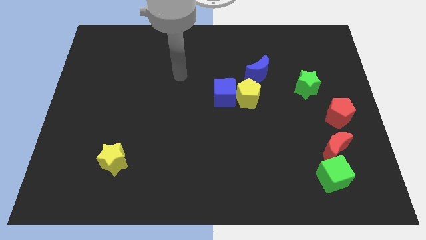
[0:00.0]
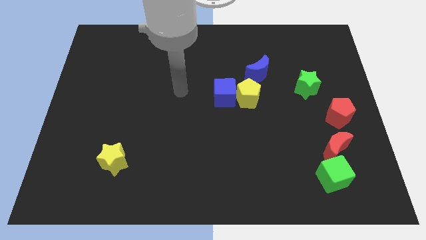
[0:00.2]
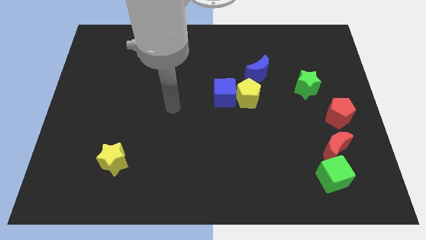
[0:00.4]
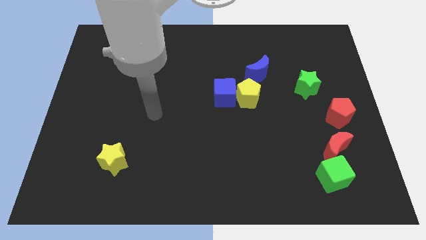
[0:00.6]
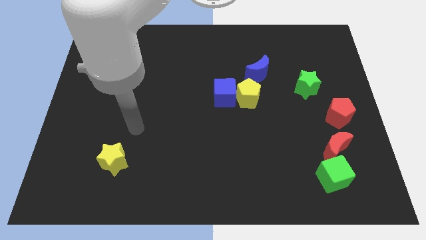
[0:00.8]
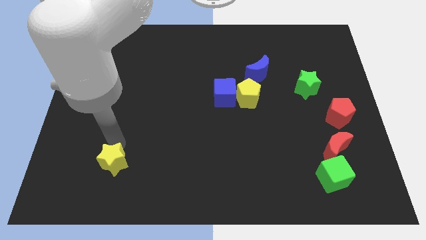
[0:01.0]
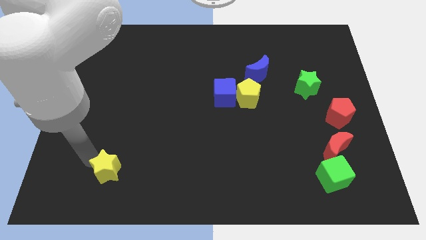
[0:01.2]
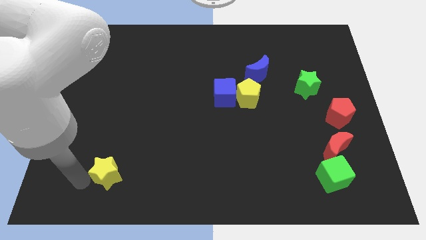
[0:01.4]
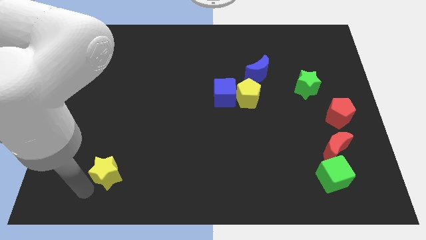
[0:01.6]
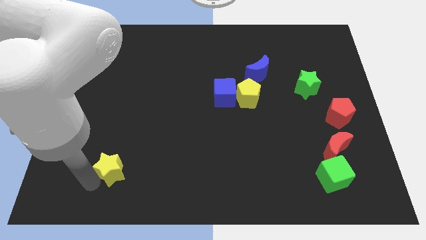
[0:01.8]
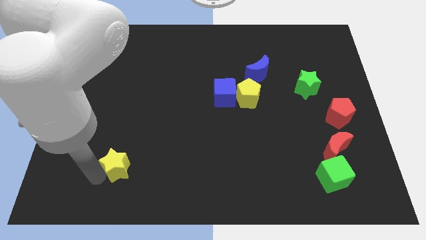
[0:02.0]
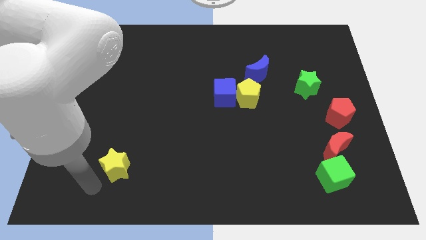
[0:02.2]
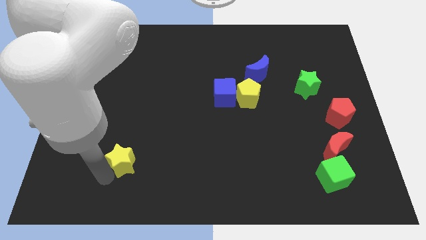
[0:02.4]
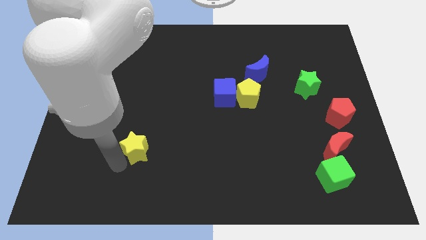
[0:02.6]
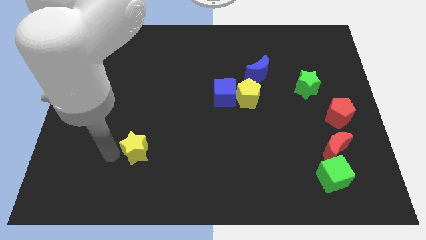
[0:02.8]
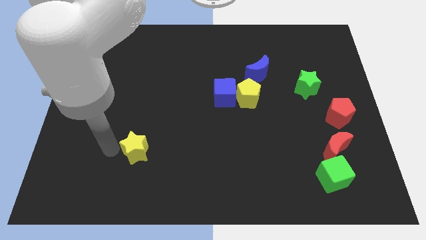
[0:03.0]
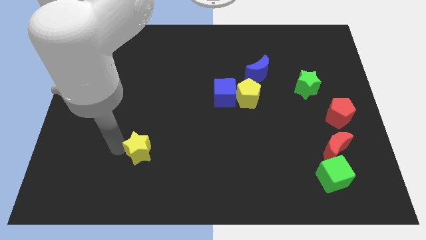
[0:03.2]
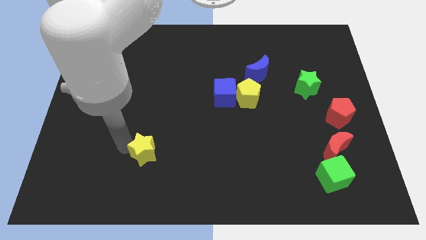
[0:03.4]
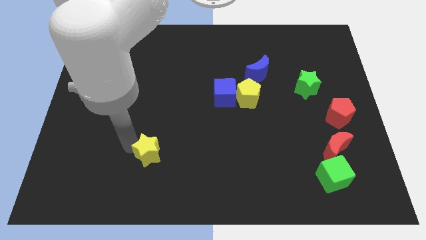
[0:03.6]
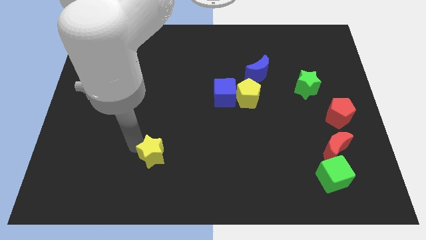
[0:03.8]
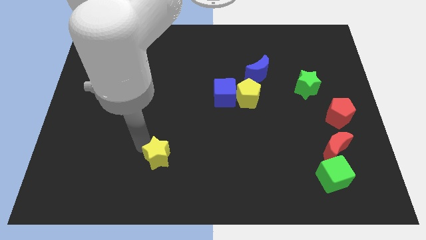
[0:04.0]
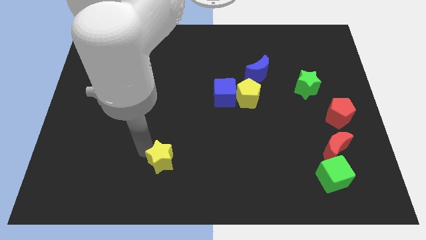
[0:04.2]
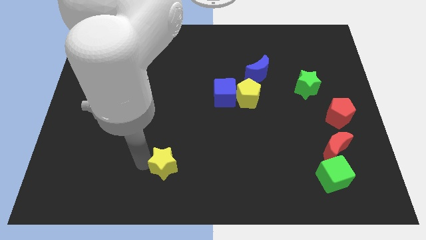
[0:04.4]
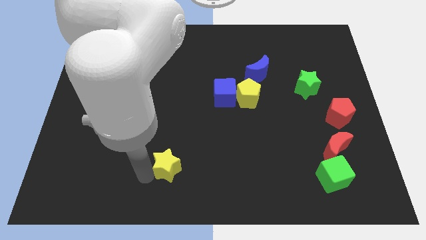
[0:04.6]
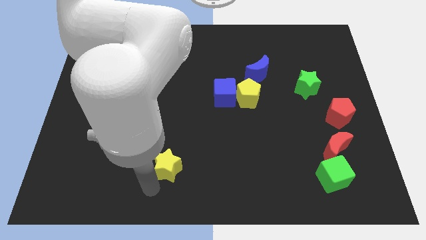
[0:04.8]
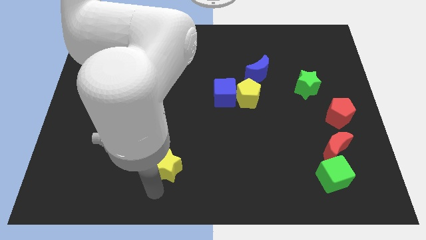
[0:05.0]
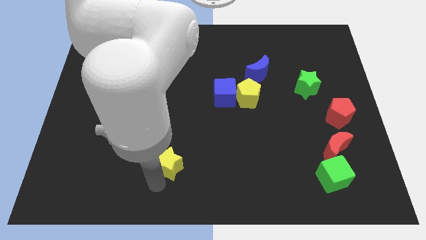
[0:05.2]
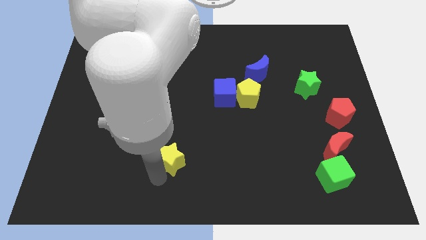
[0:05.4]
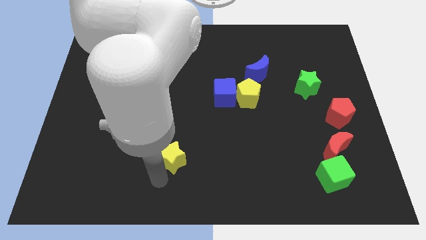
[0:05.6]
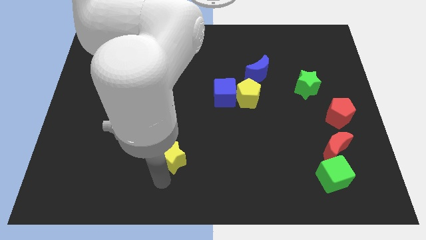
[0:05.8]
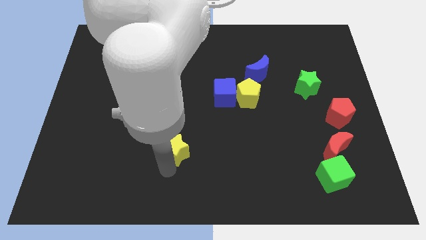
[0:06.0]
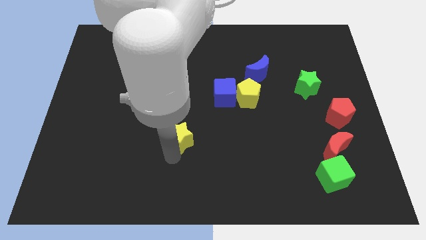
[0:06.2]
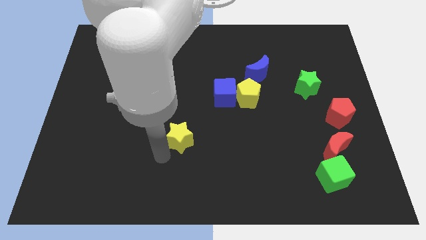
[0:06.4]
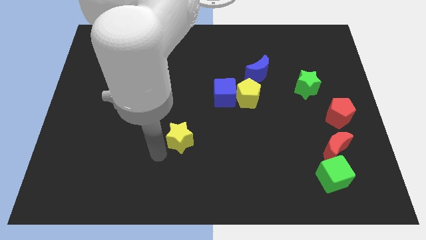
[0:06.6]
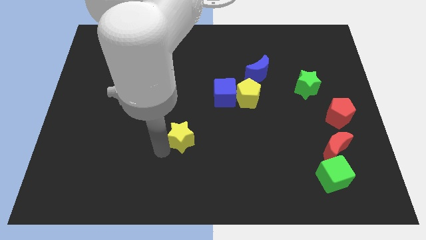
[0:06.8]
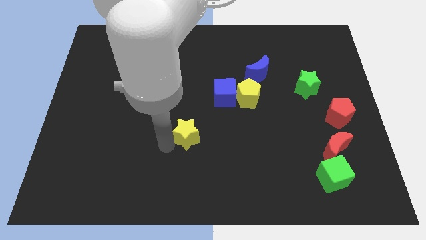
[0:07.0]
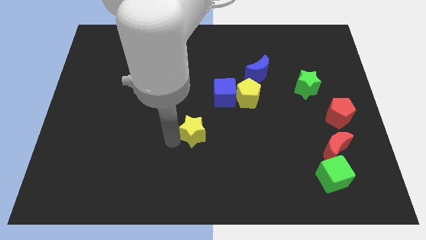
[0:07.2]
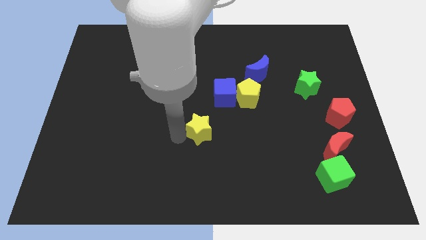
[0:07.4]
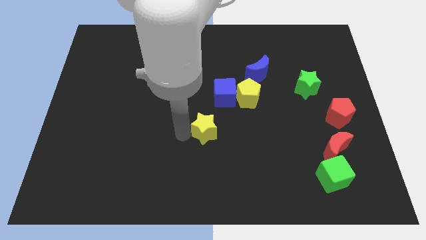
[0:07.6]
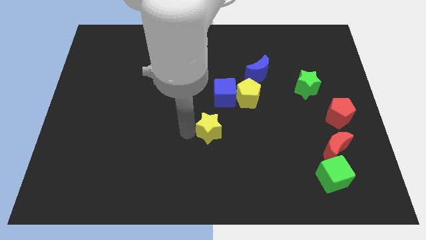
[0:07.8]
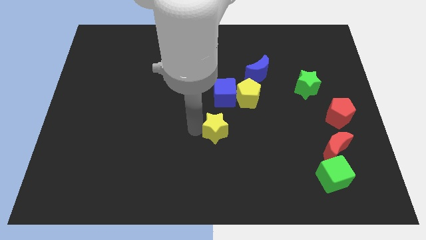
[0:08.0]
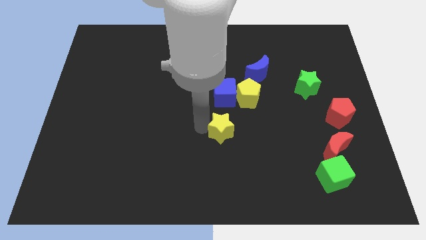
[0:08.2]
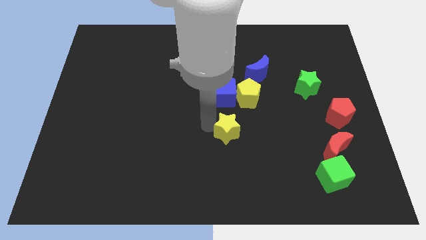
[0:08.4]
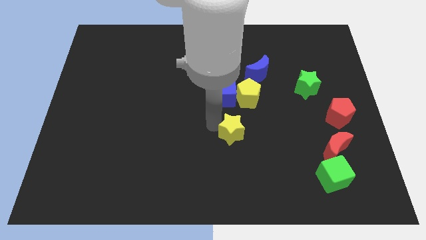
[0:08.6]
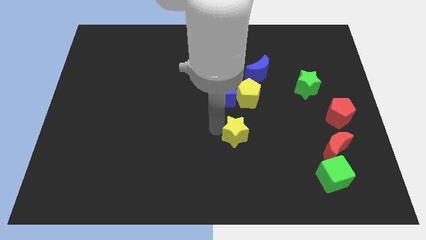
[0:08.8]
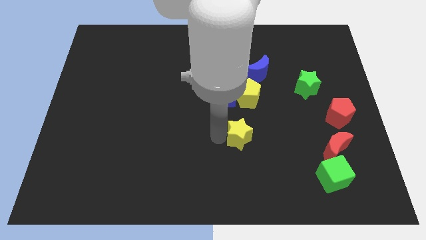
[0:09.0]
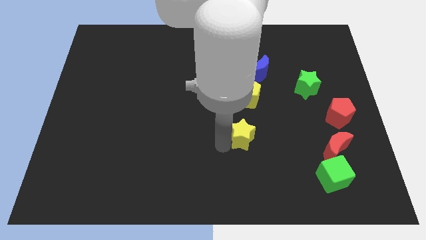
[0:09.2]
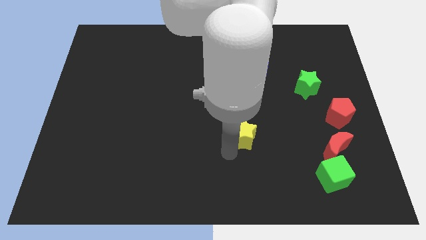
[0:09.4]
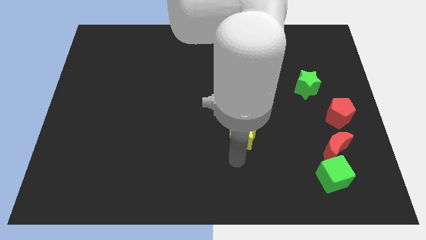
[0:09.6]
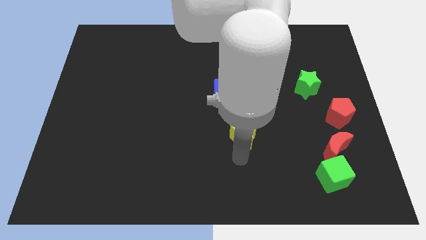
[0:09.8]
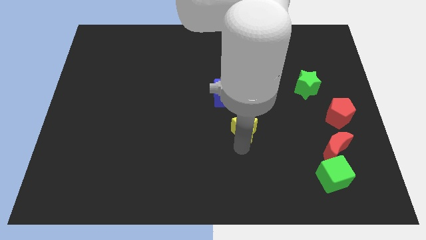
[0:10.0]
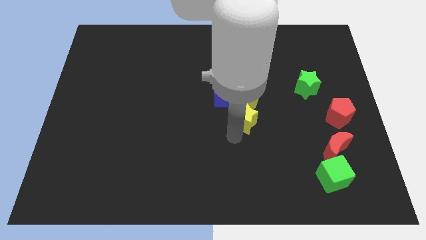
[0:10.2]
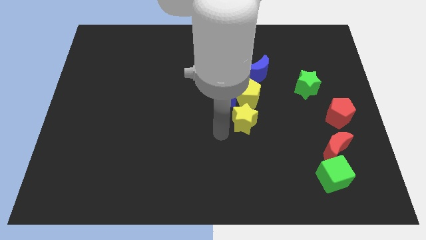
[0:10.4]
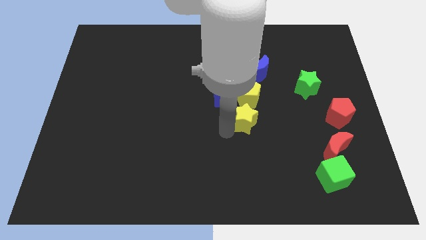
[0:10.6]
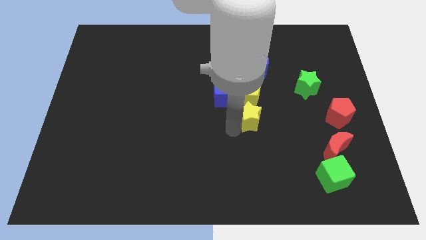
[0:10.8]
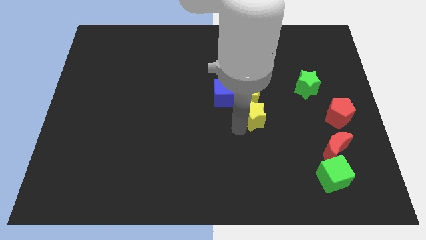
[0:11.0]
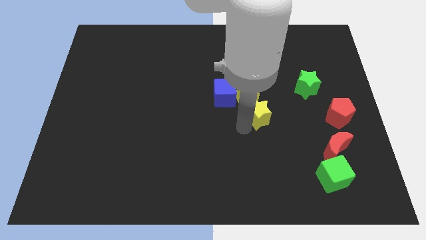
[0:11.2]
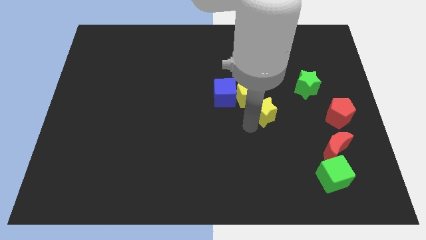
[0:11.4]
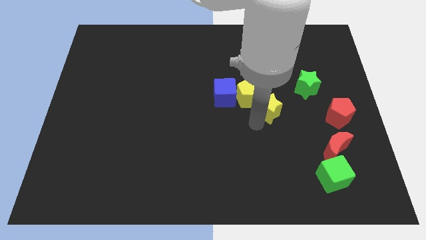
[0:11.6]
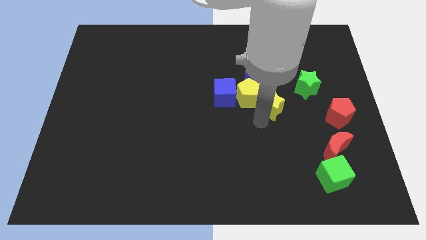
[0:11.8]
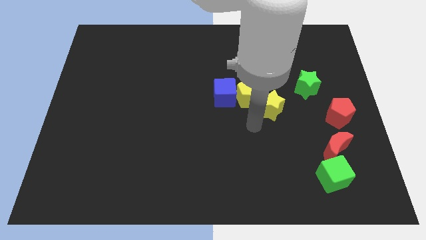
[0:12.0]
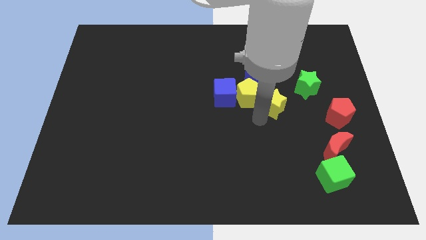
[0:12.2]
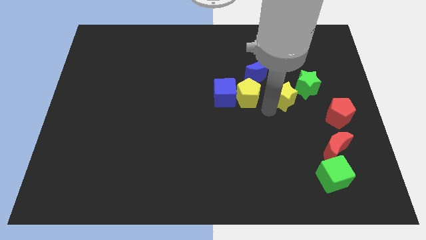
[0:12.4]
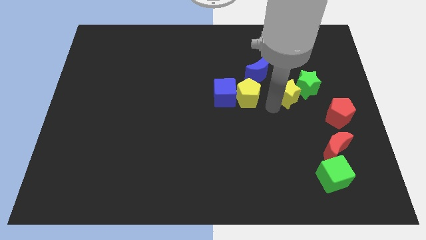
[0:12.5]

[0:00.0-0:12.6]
move the yellow star to the green star

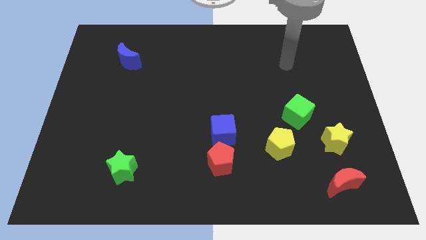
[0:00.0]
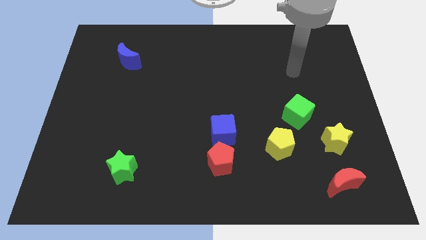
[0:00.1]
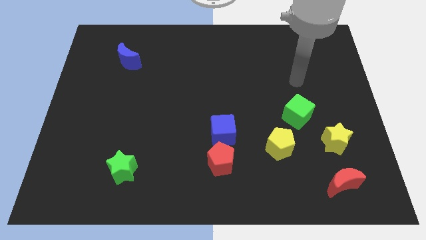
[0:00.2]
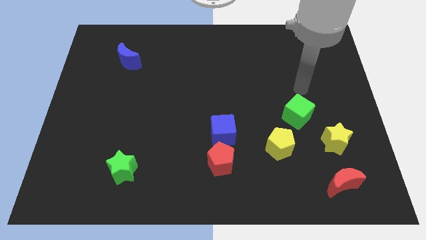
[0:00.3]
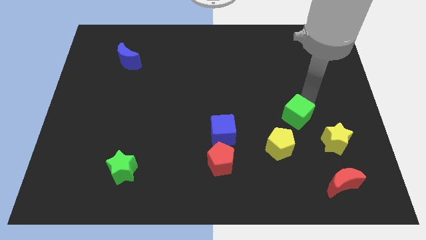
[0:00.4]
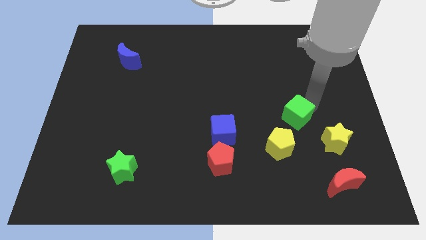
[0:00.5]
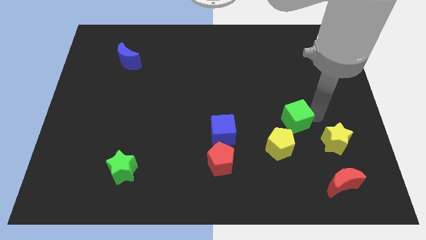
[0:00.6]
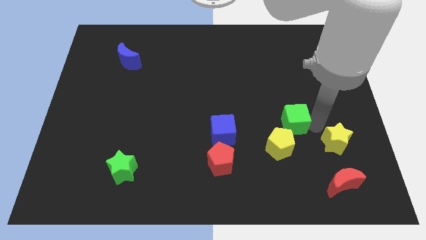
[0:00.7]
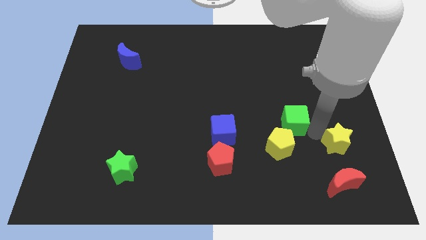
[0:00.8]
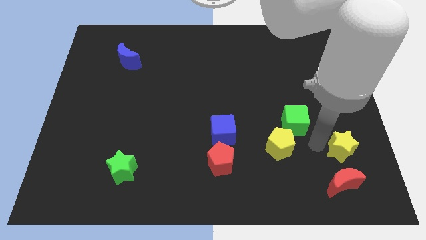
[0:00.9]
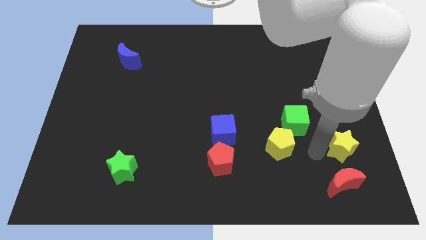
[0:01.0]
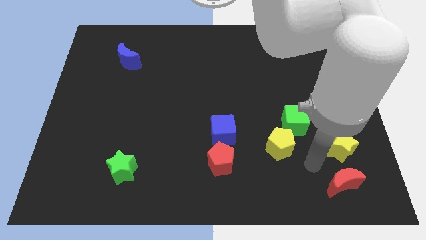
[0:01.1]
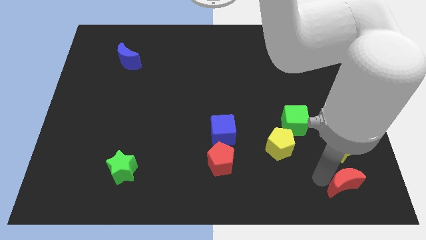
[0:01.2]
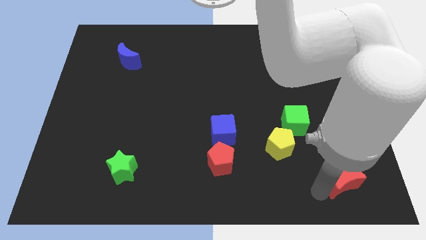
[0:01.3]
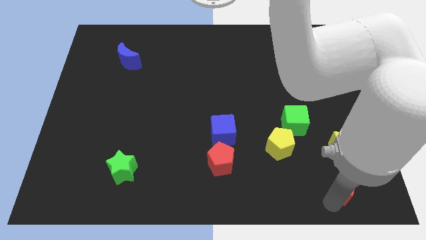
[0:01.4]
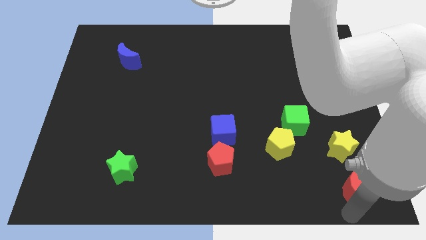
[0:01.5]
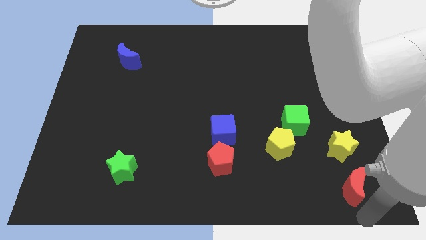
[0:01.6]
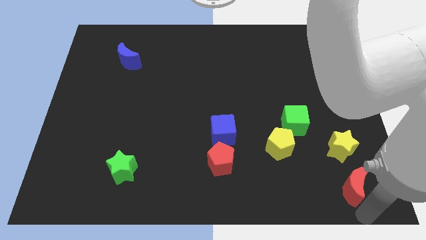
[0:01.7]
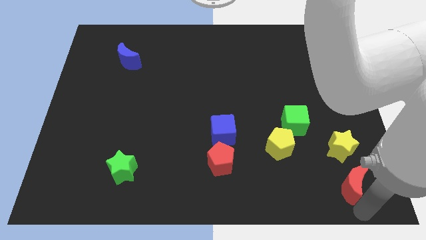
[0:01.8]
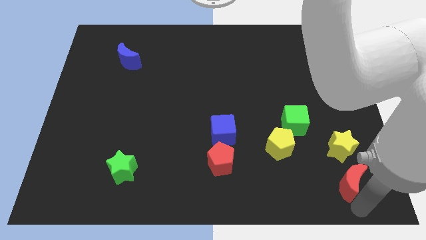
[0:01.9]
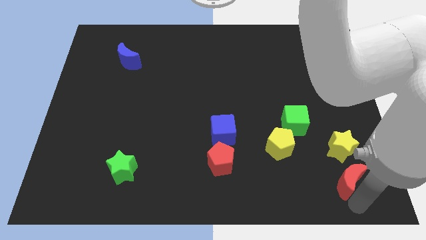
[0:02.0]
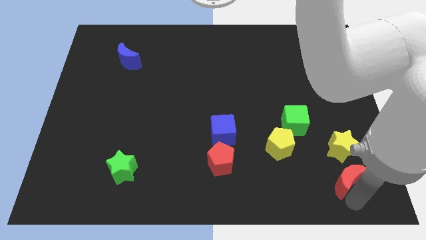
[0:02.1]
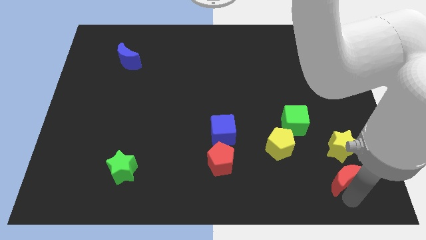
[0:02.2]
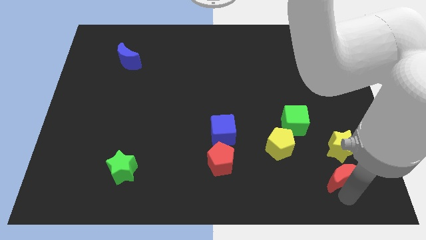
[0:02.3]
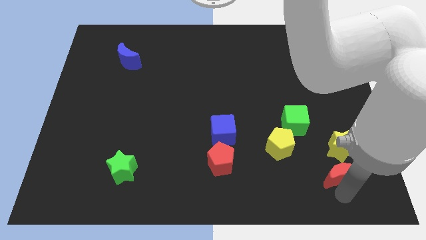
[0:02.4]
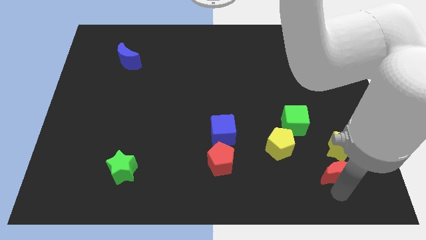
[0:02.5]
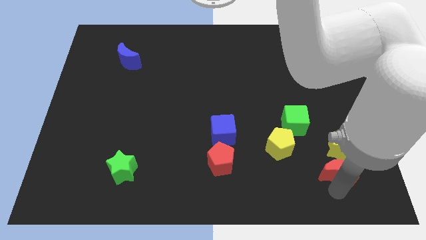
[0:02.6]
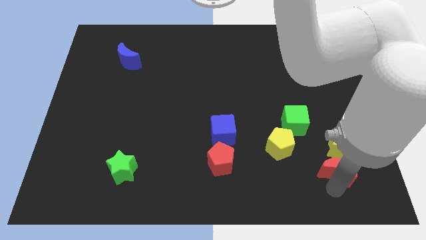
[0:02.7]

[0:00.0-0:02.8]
push the red moon towards the yellow star
